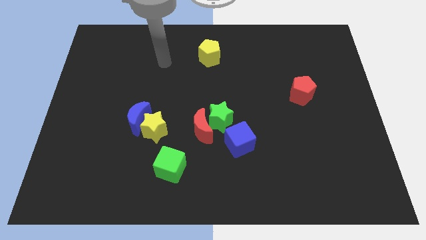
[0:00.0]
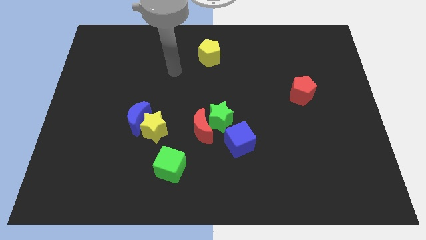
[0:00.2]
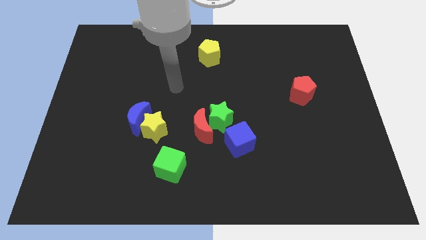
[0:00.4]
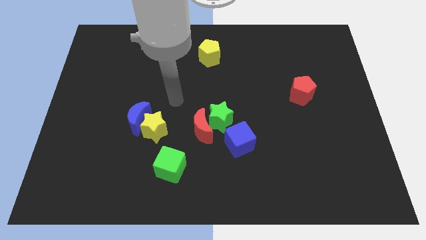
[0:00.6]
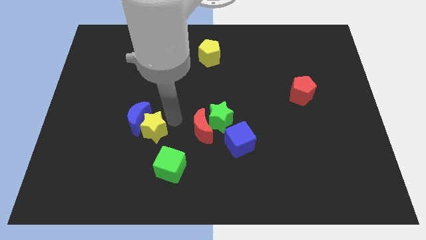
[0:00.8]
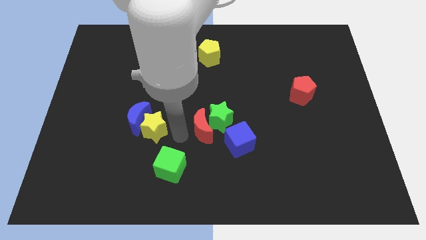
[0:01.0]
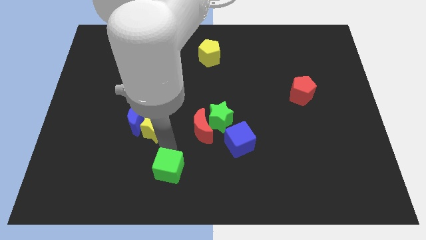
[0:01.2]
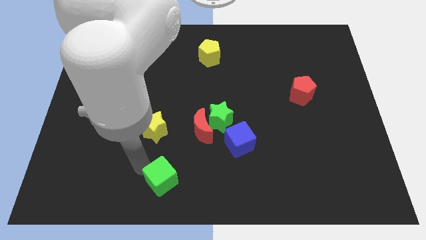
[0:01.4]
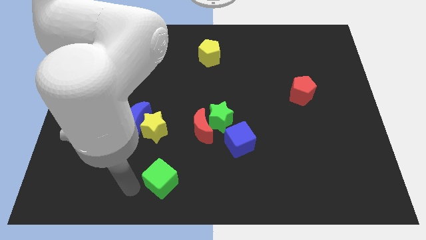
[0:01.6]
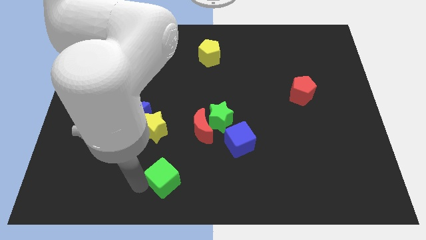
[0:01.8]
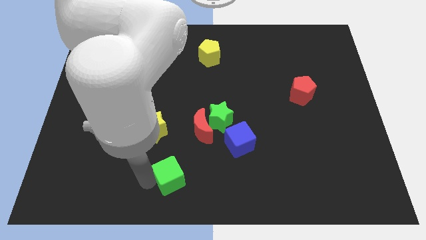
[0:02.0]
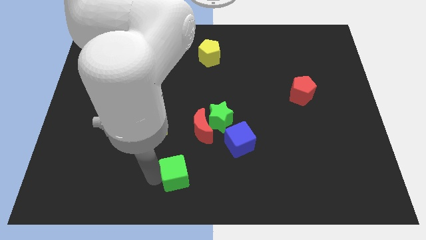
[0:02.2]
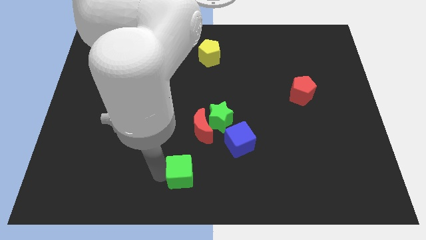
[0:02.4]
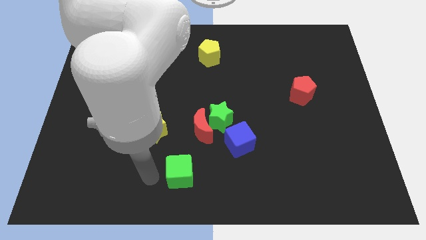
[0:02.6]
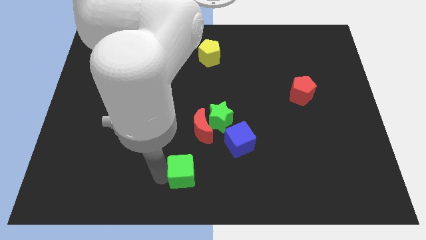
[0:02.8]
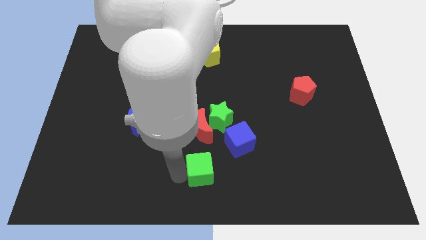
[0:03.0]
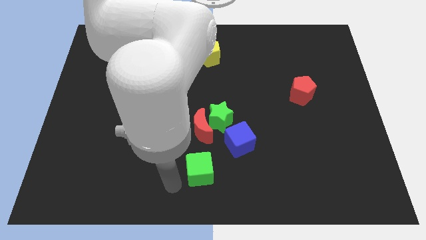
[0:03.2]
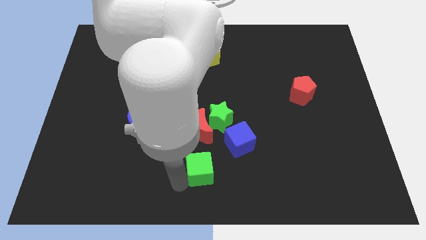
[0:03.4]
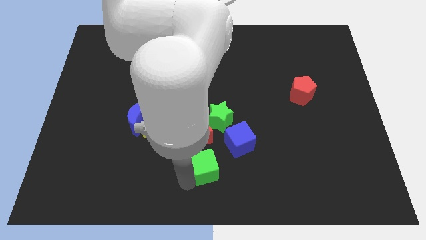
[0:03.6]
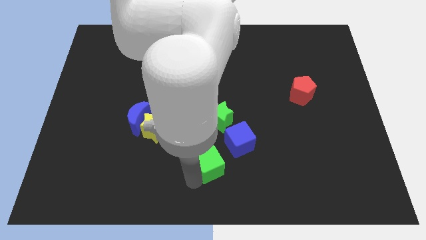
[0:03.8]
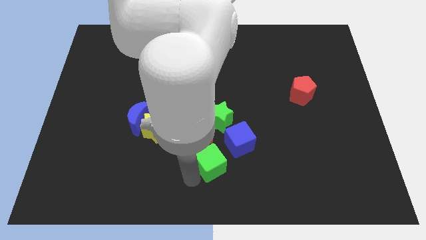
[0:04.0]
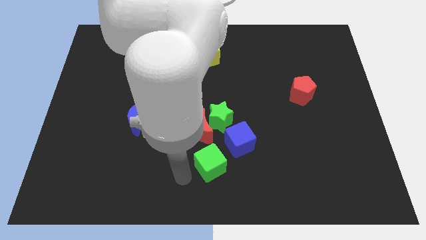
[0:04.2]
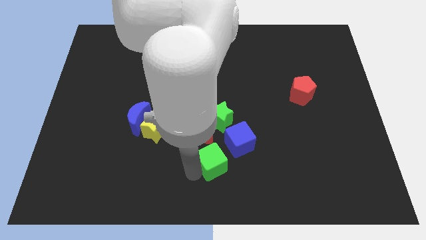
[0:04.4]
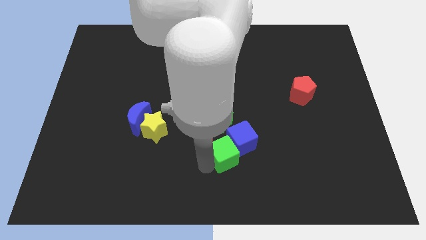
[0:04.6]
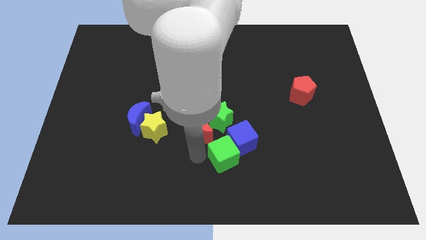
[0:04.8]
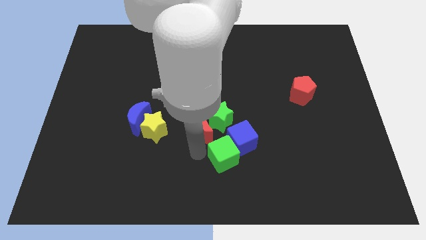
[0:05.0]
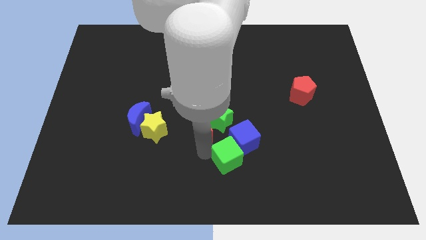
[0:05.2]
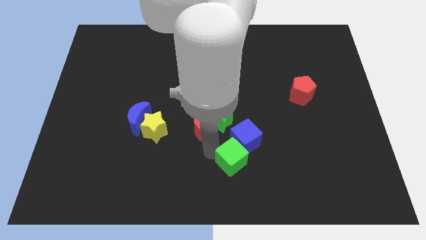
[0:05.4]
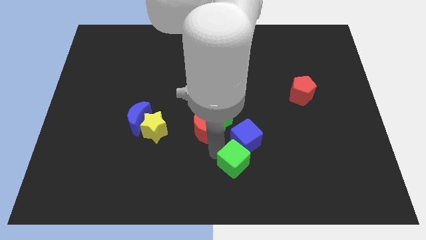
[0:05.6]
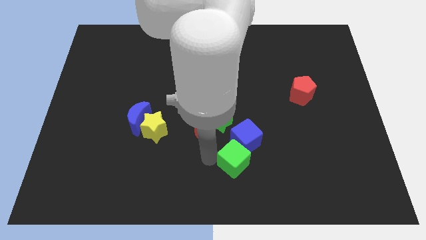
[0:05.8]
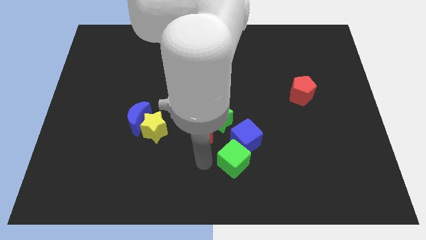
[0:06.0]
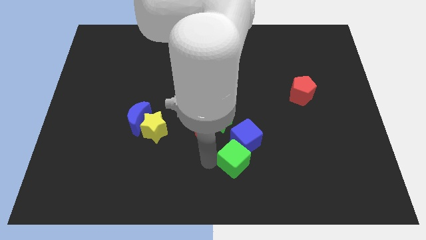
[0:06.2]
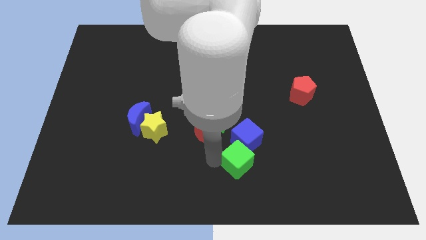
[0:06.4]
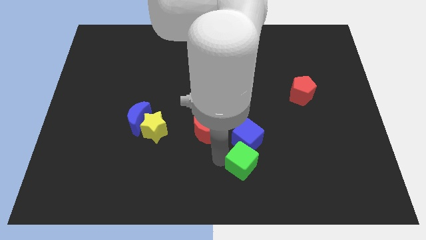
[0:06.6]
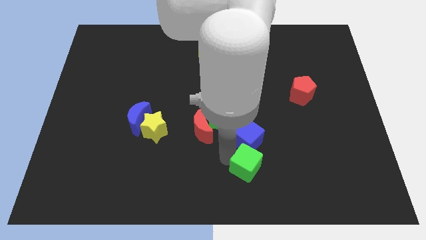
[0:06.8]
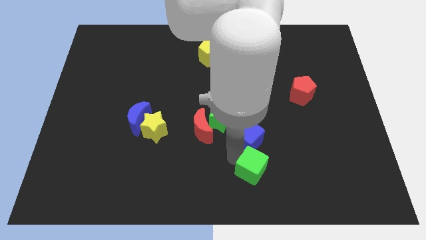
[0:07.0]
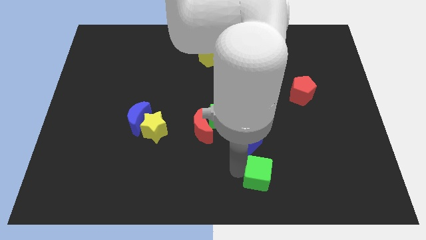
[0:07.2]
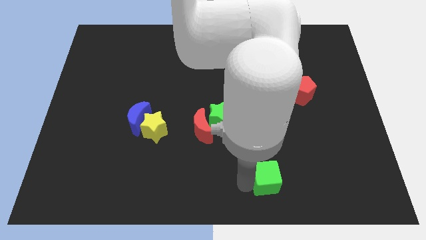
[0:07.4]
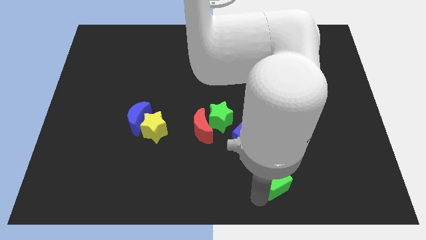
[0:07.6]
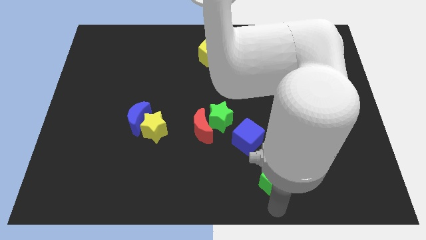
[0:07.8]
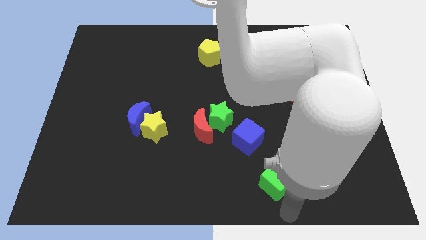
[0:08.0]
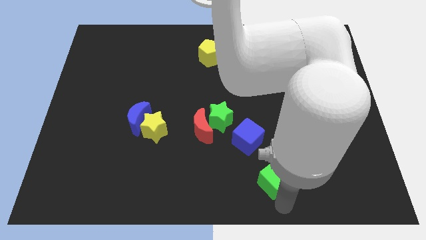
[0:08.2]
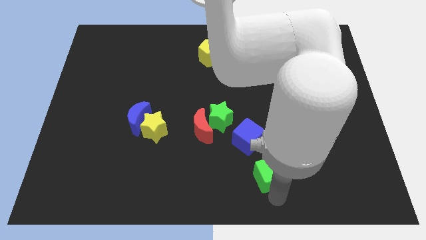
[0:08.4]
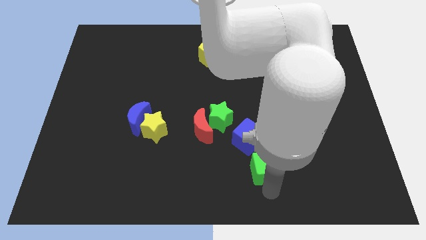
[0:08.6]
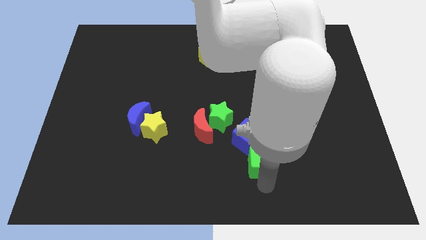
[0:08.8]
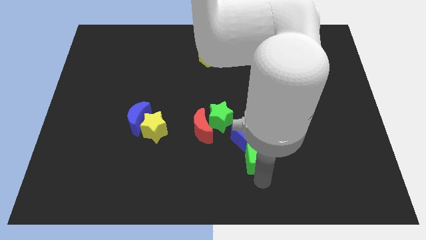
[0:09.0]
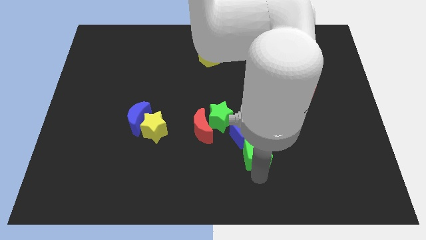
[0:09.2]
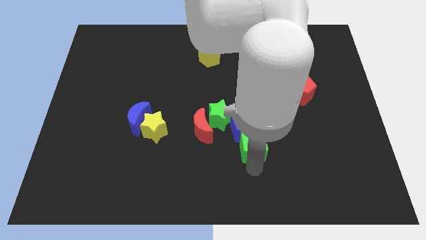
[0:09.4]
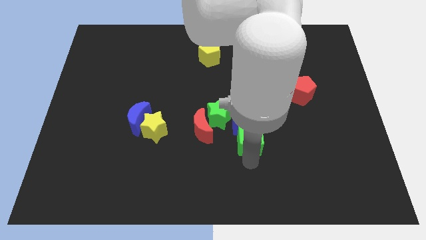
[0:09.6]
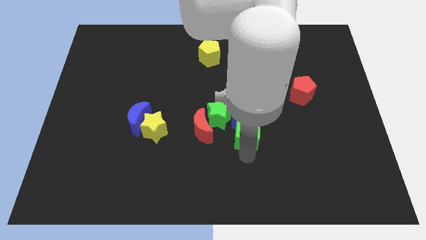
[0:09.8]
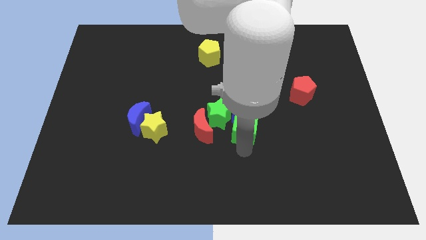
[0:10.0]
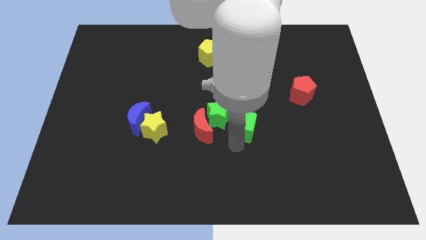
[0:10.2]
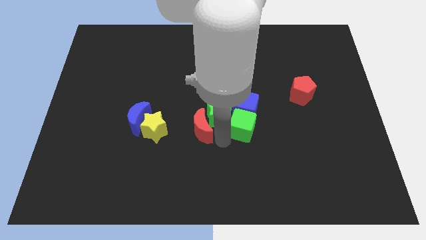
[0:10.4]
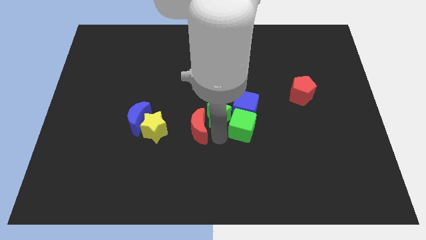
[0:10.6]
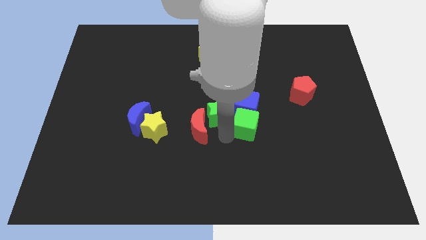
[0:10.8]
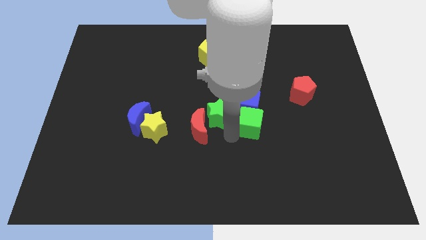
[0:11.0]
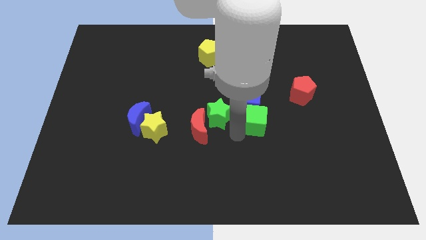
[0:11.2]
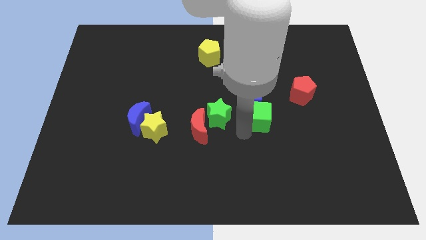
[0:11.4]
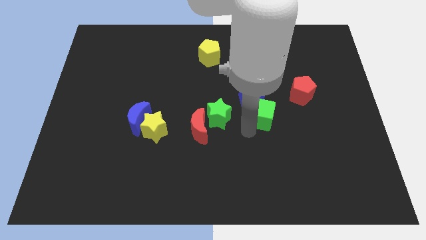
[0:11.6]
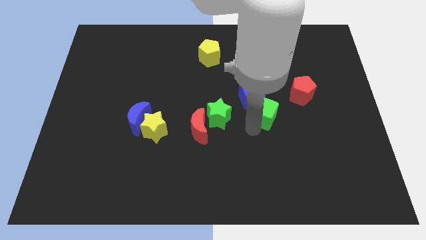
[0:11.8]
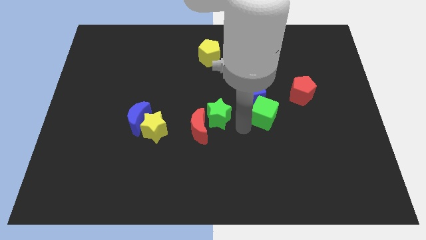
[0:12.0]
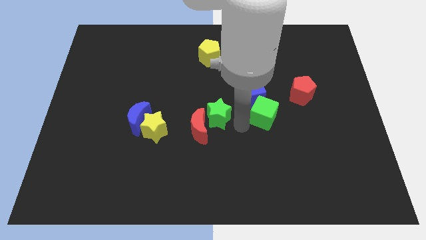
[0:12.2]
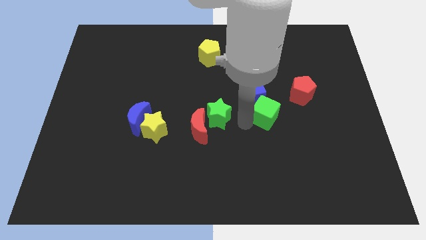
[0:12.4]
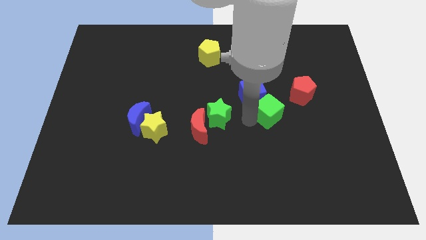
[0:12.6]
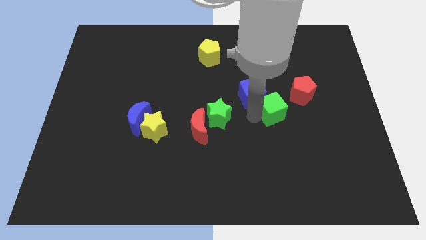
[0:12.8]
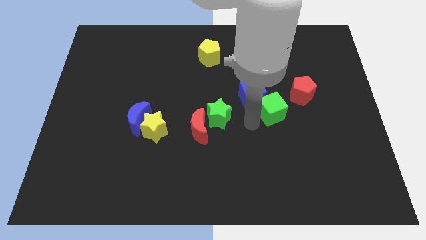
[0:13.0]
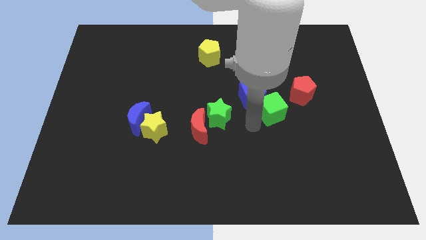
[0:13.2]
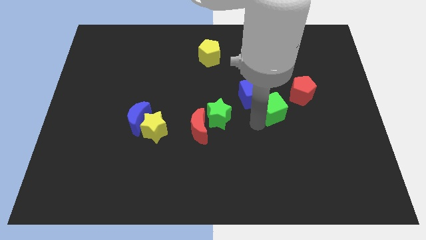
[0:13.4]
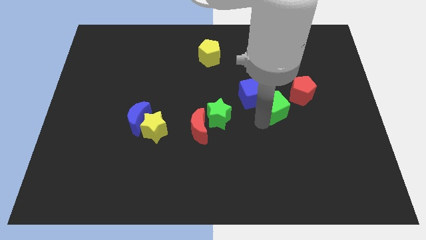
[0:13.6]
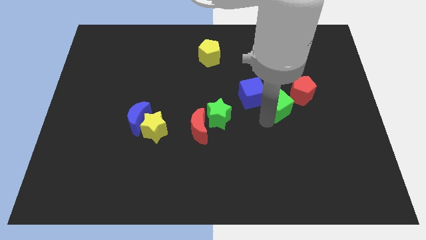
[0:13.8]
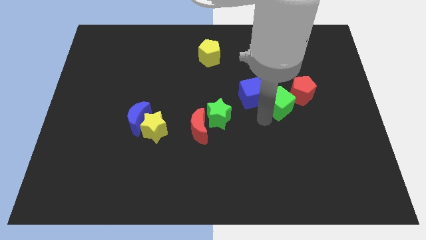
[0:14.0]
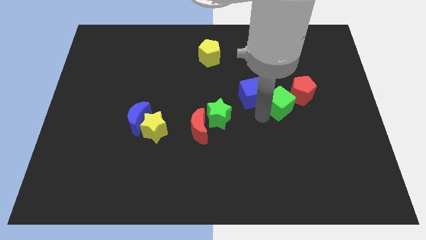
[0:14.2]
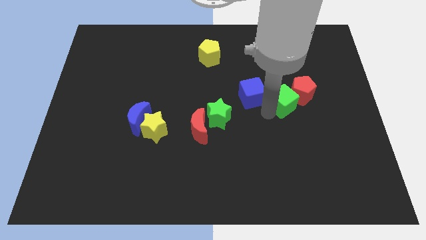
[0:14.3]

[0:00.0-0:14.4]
move the green cube towards the red pentagon
